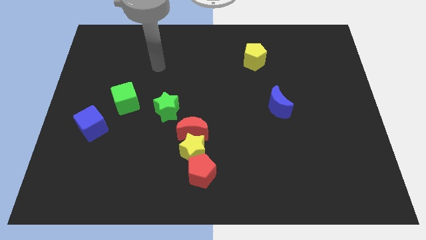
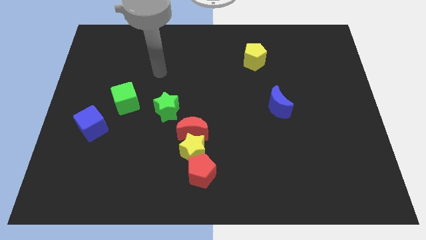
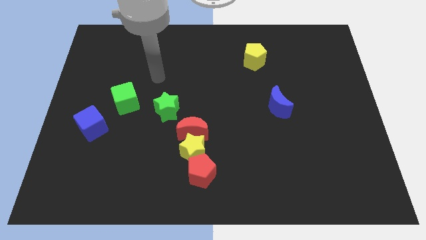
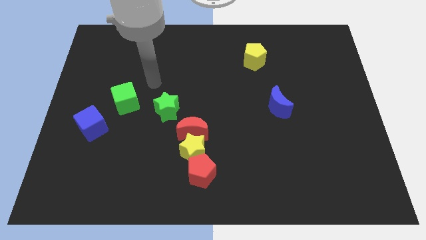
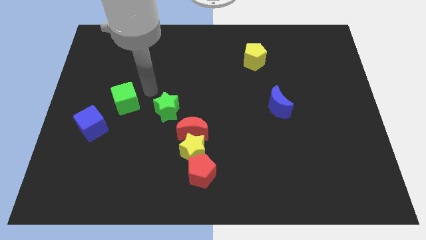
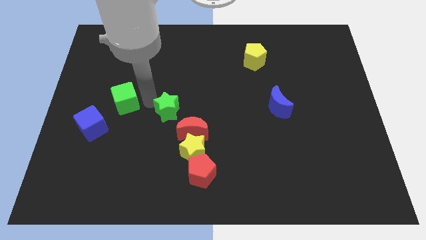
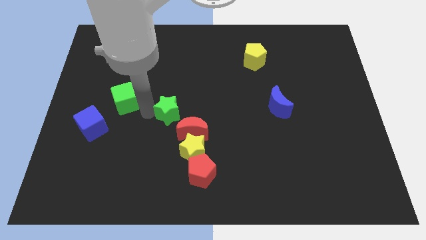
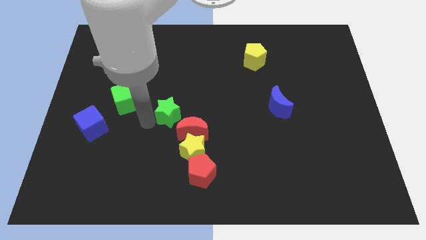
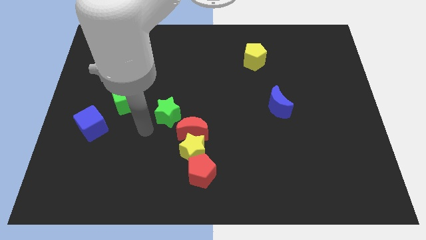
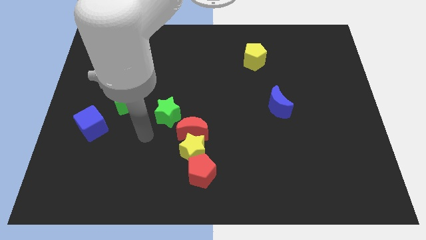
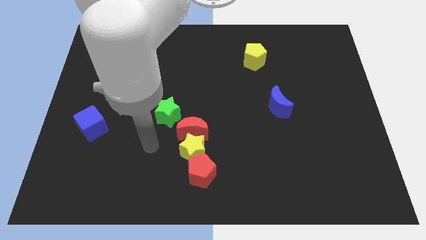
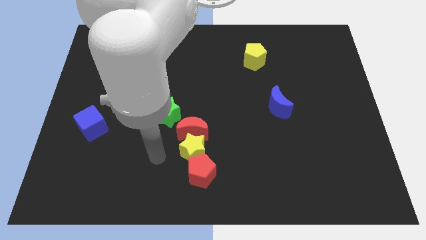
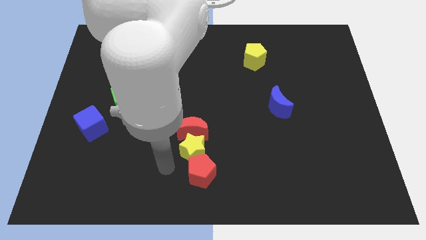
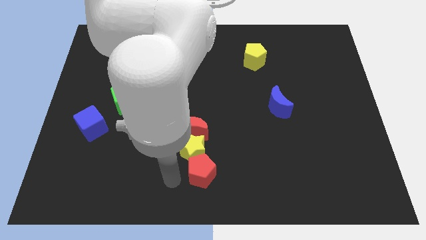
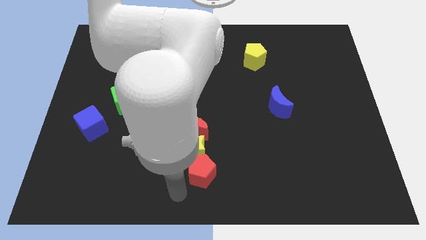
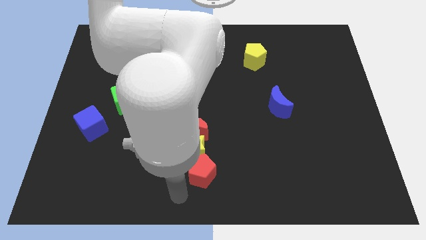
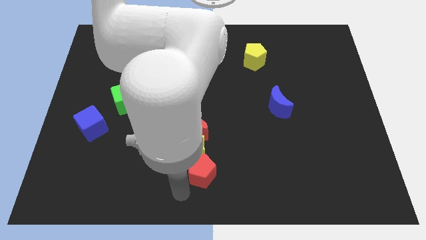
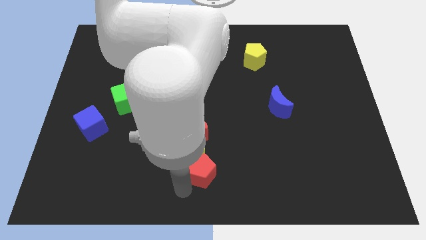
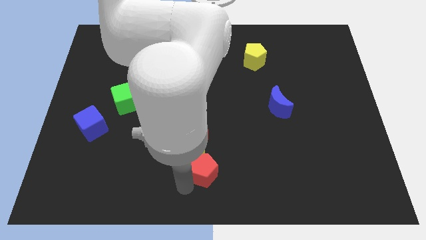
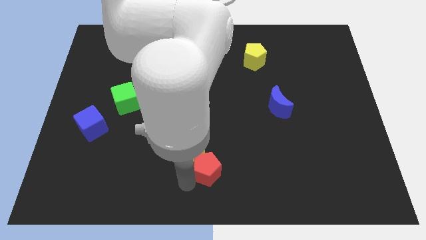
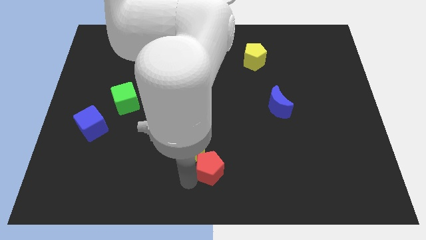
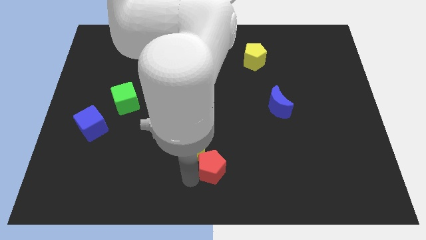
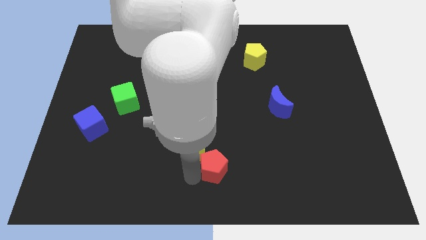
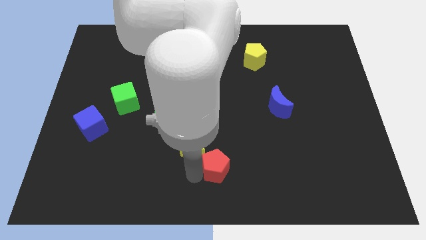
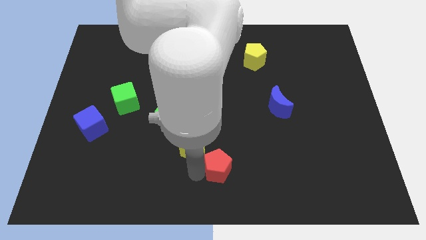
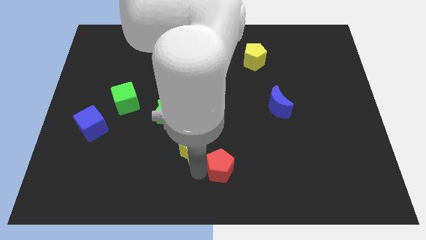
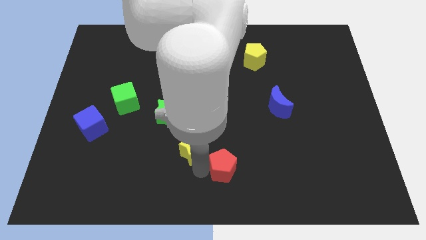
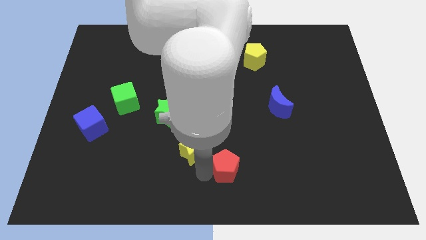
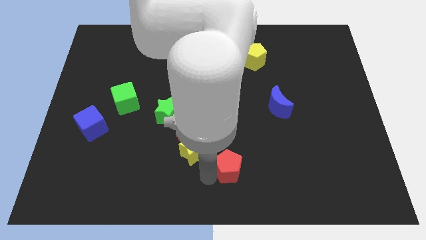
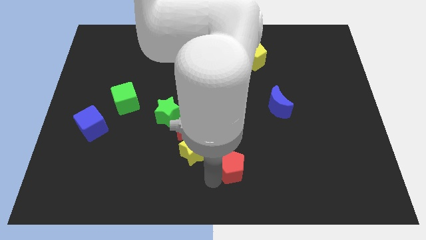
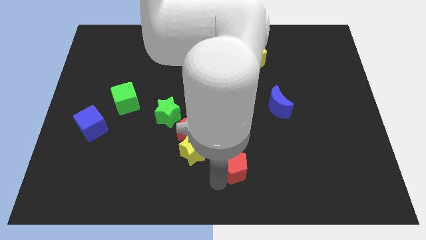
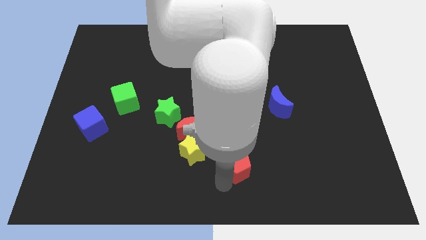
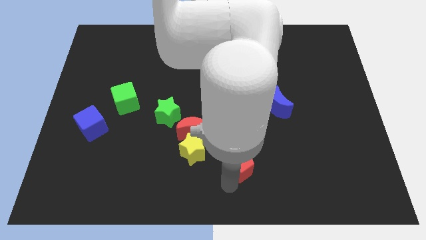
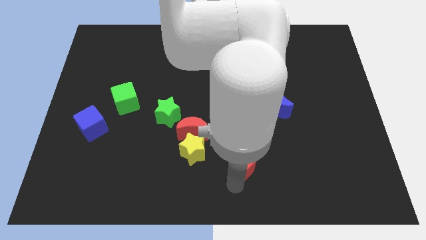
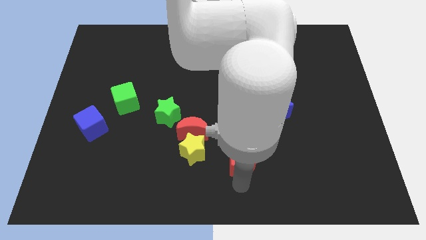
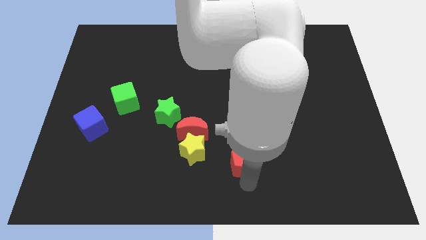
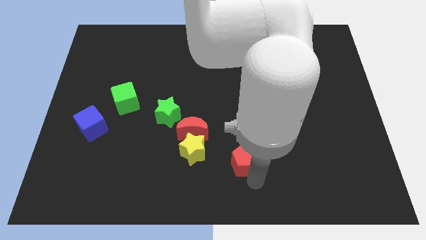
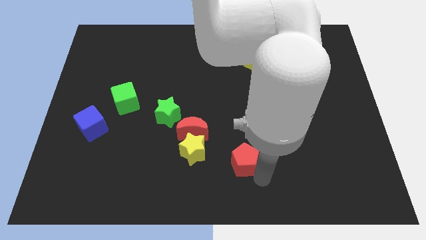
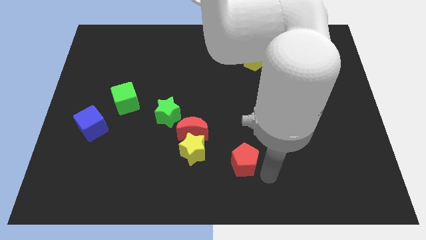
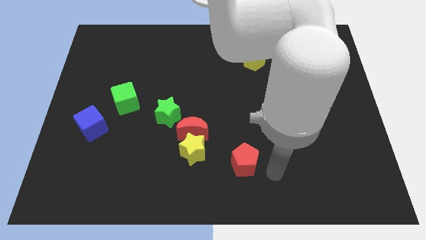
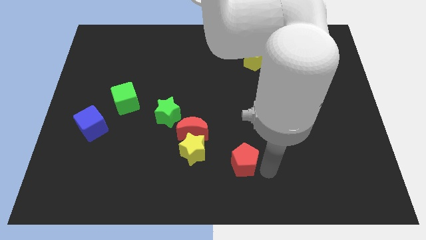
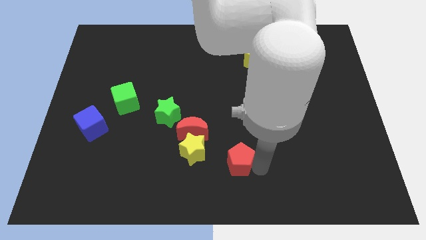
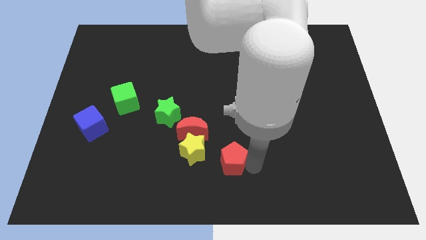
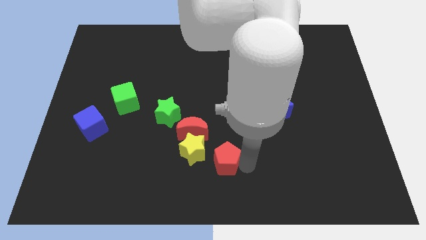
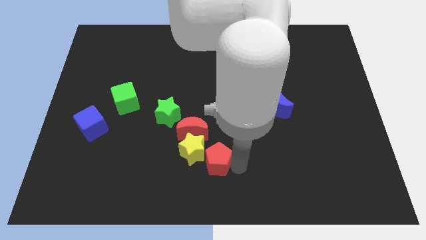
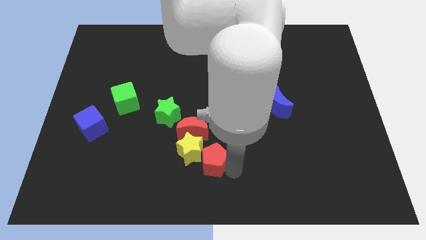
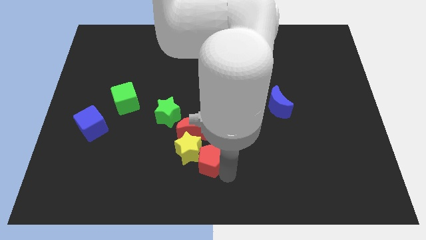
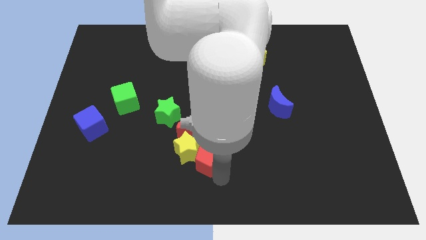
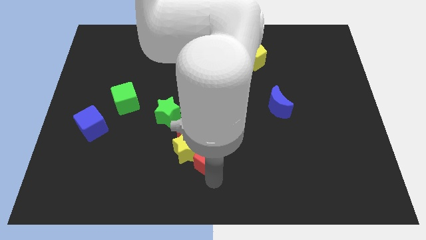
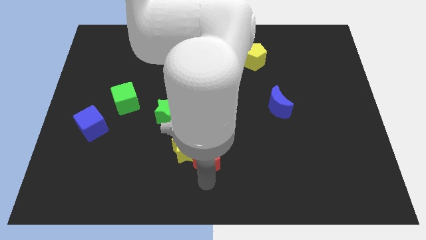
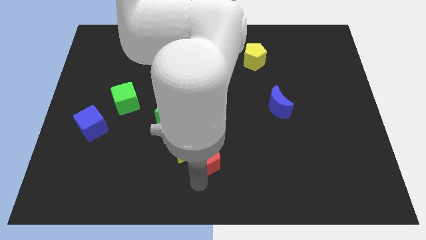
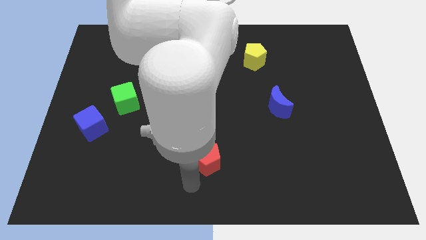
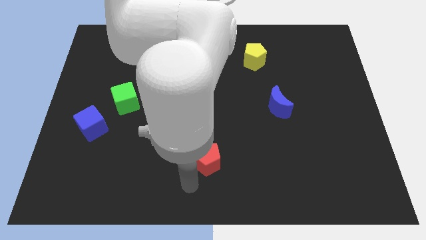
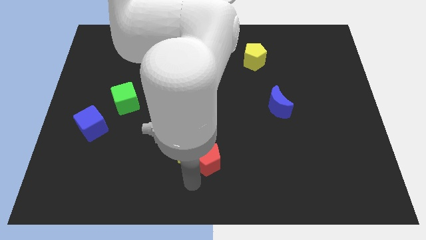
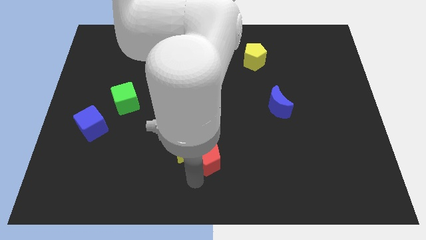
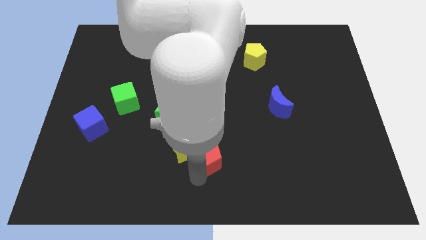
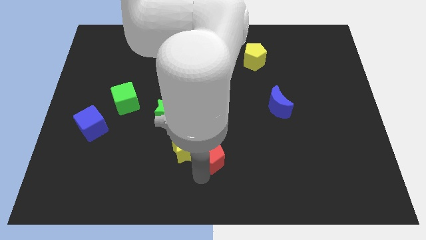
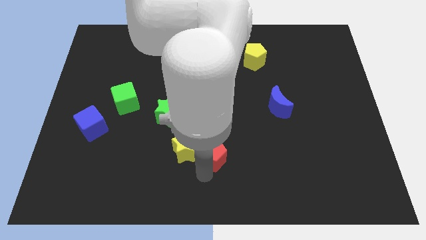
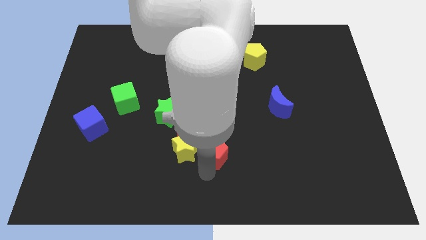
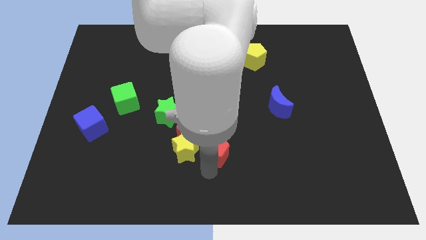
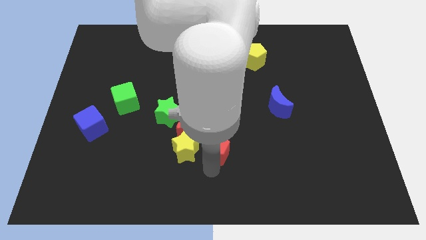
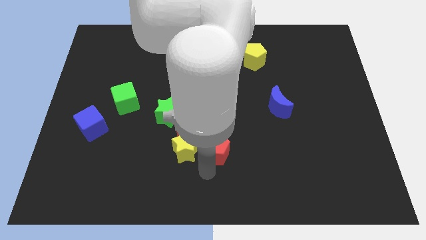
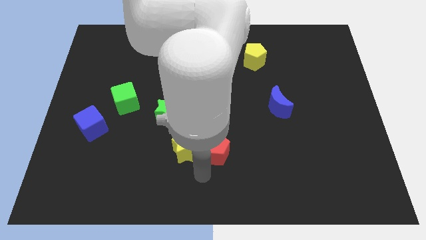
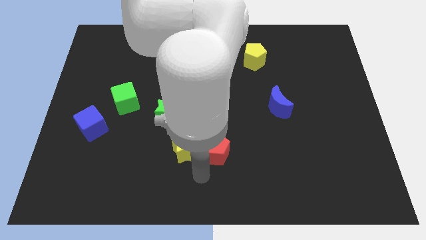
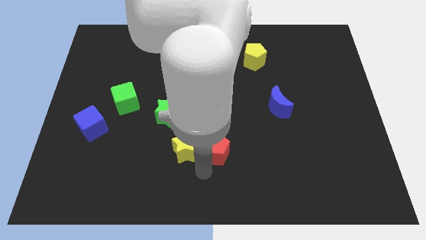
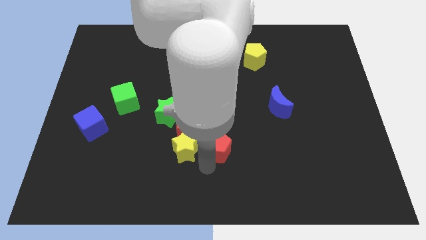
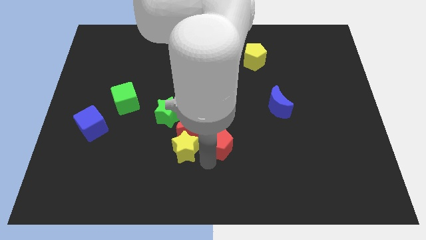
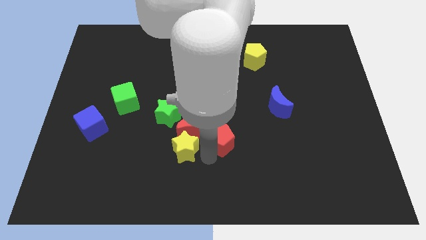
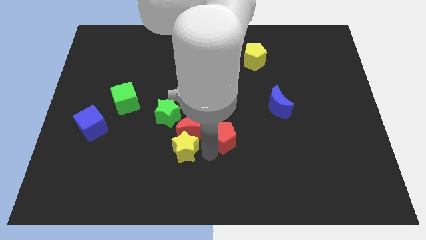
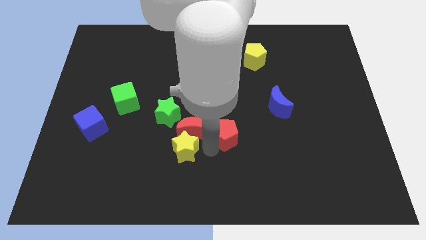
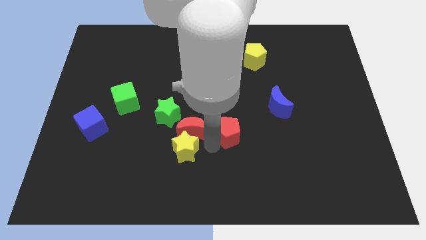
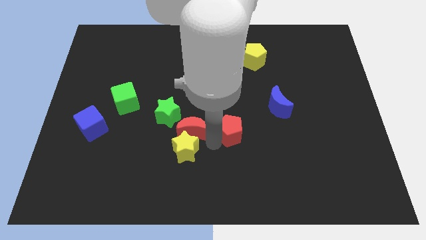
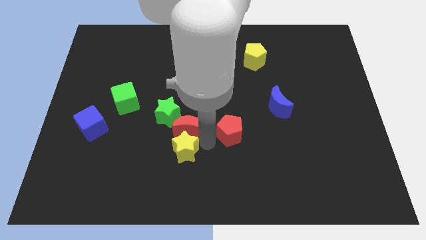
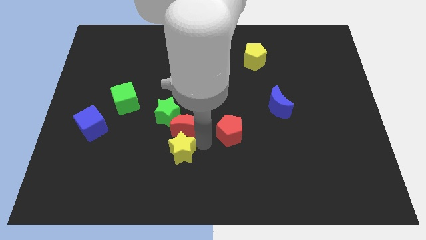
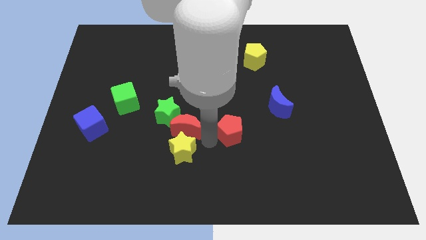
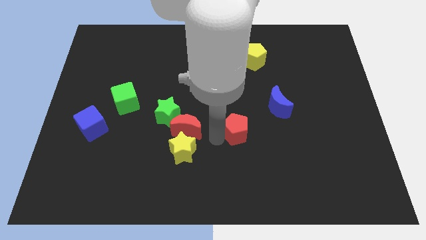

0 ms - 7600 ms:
move the red pentagon to the bottom left side of the blue moon
